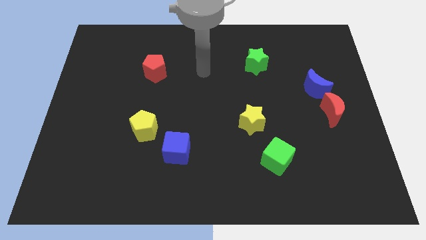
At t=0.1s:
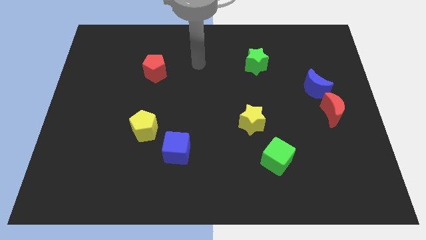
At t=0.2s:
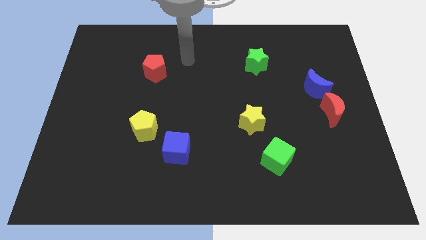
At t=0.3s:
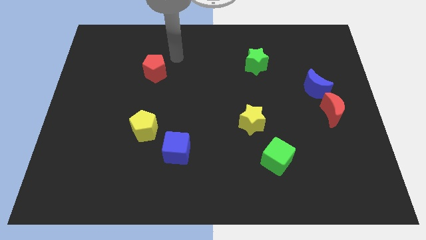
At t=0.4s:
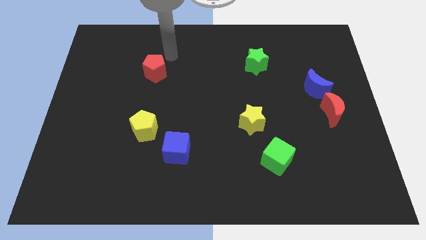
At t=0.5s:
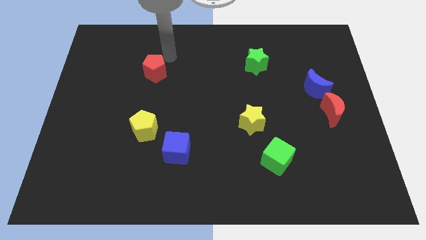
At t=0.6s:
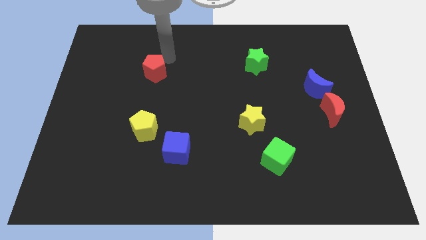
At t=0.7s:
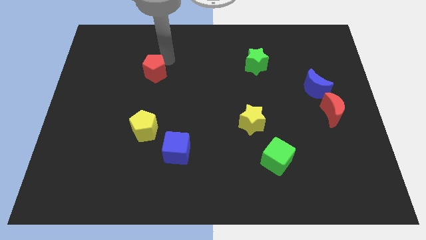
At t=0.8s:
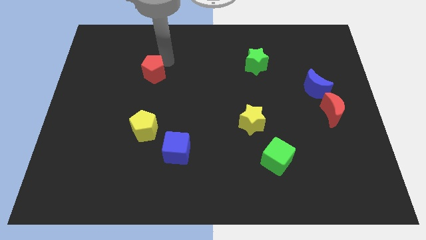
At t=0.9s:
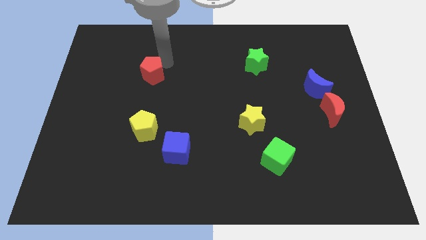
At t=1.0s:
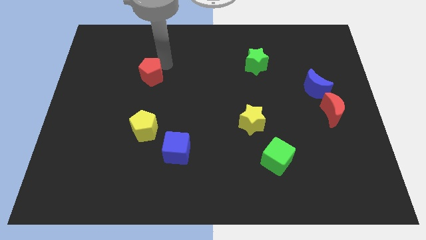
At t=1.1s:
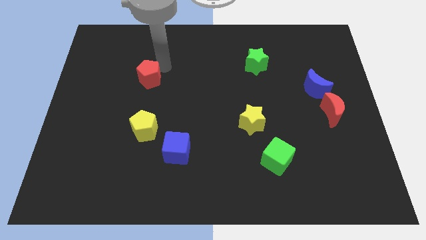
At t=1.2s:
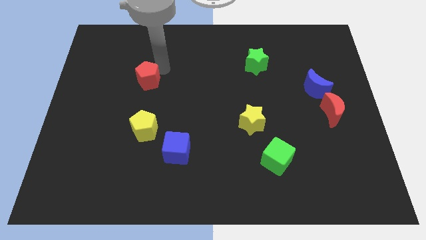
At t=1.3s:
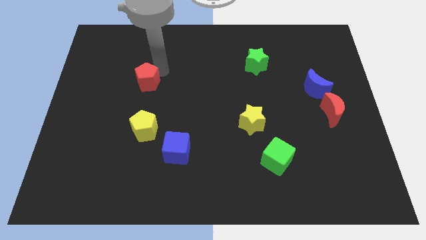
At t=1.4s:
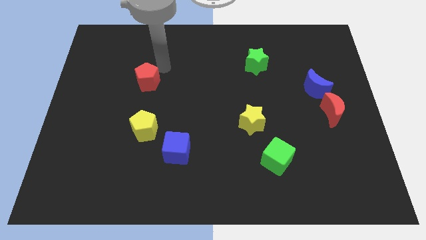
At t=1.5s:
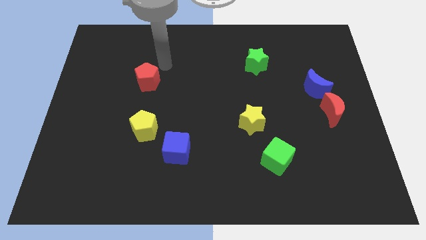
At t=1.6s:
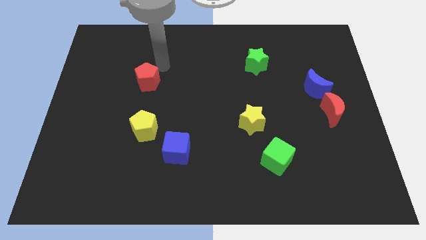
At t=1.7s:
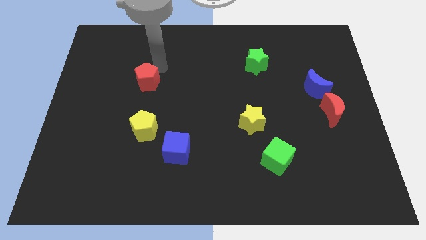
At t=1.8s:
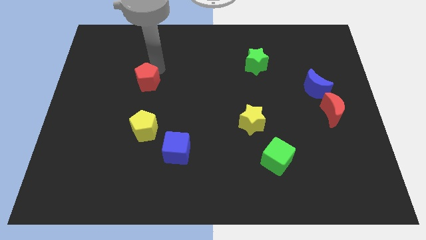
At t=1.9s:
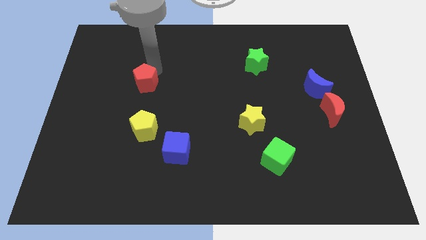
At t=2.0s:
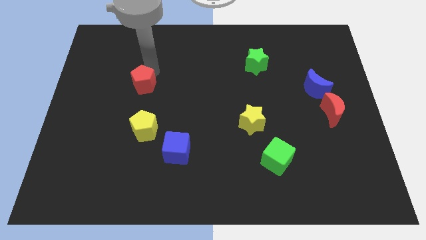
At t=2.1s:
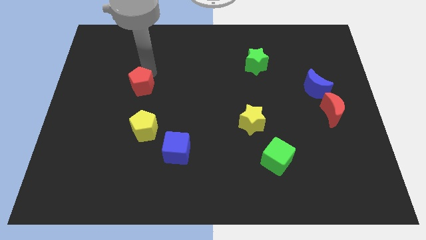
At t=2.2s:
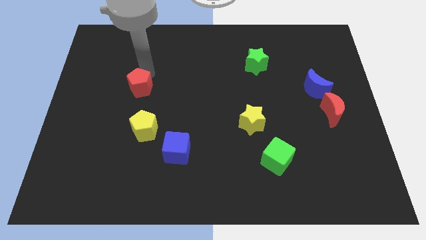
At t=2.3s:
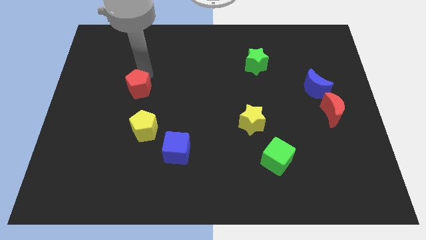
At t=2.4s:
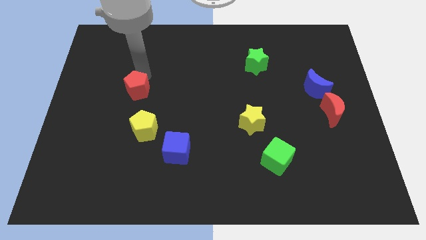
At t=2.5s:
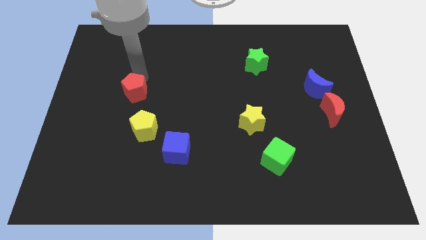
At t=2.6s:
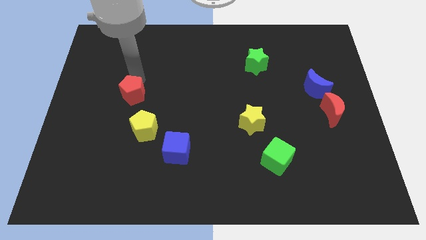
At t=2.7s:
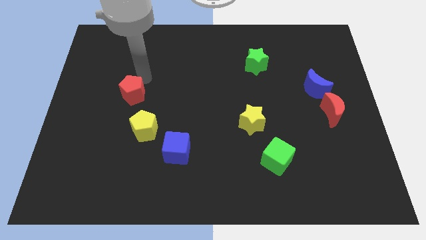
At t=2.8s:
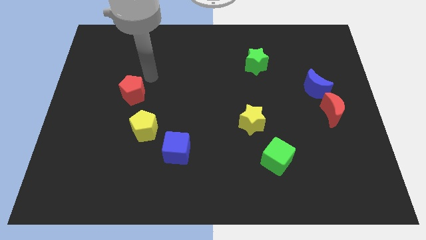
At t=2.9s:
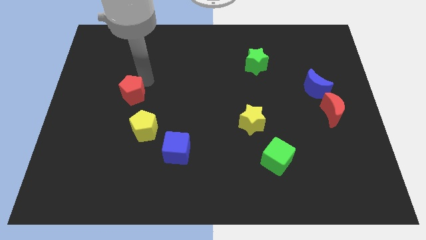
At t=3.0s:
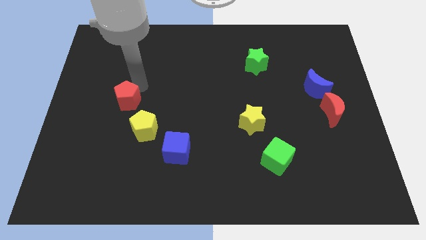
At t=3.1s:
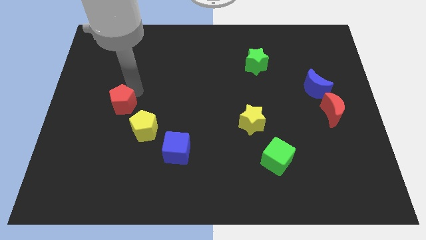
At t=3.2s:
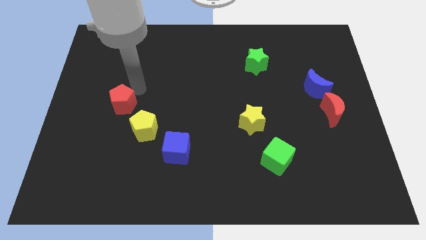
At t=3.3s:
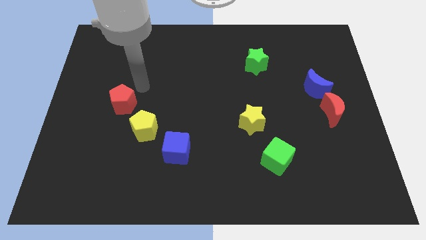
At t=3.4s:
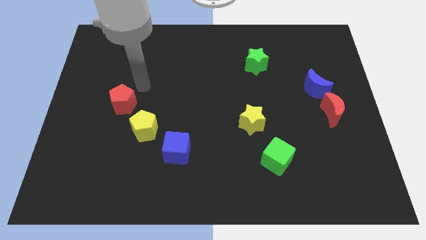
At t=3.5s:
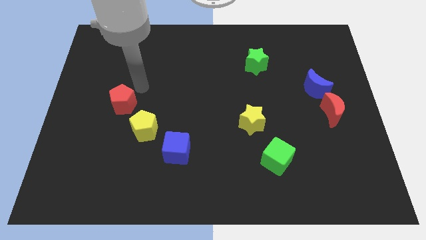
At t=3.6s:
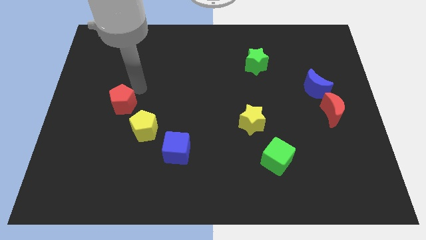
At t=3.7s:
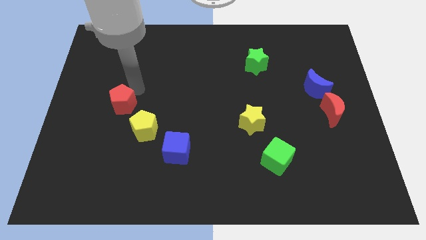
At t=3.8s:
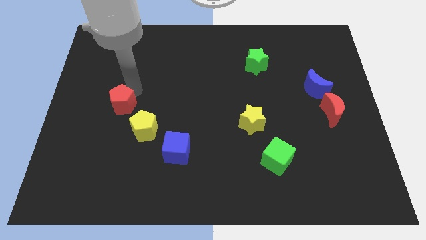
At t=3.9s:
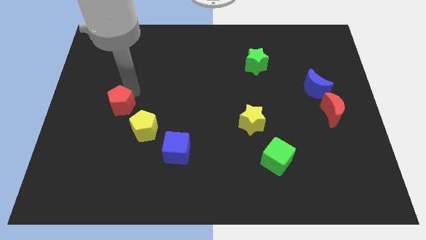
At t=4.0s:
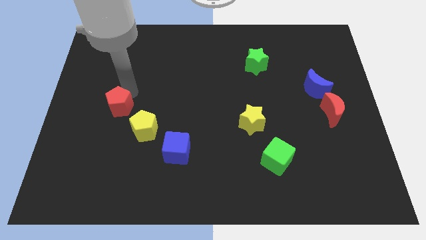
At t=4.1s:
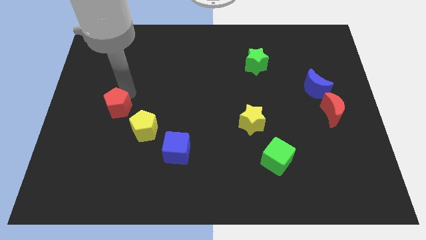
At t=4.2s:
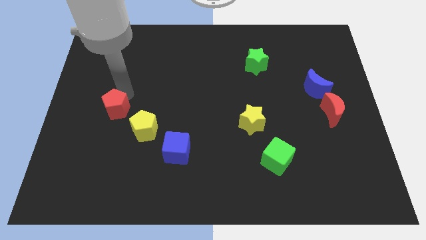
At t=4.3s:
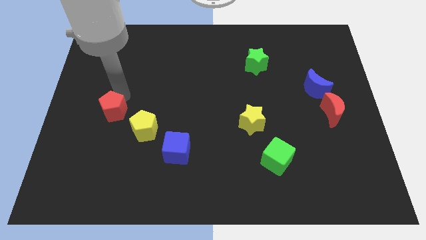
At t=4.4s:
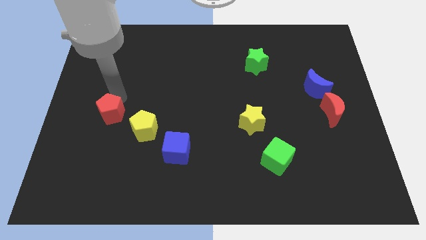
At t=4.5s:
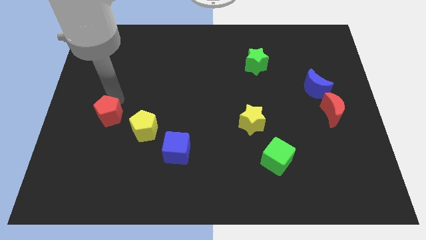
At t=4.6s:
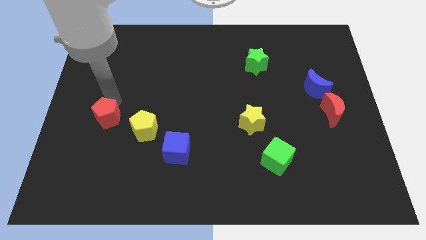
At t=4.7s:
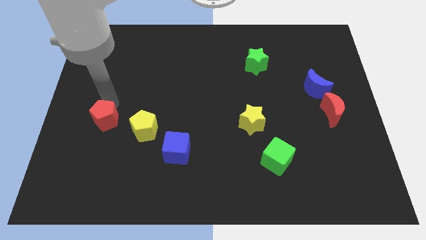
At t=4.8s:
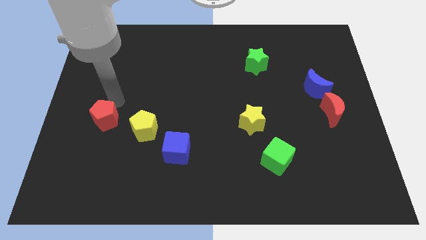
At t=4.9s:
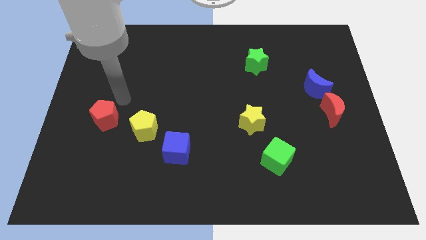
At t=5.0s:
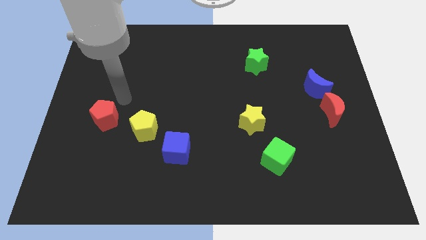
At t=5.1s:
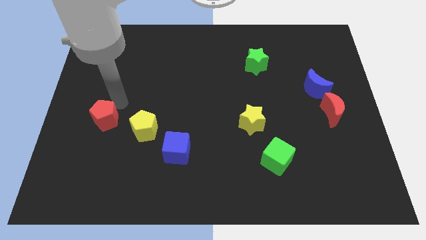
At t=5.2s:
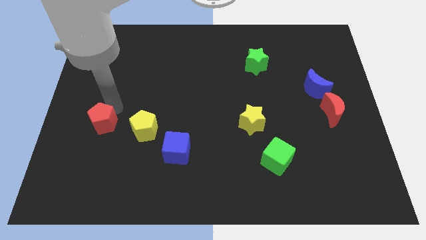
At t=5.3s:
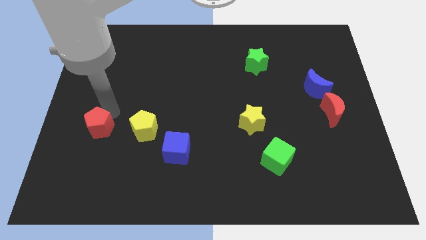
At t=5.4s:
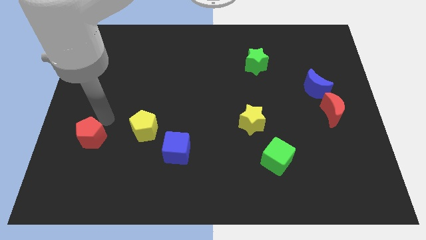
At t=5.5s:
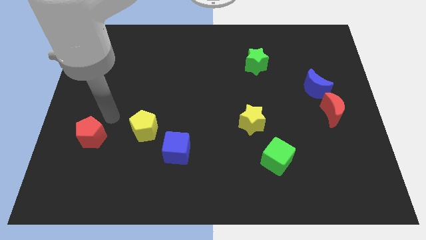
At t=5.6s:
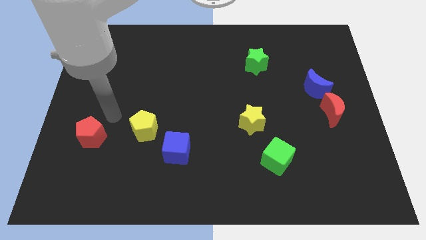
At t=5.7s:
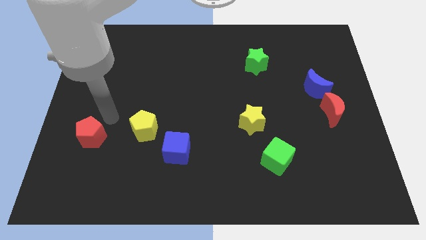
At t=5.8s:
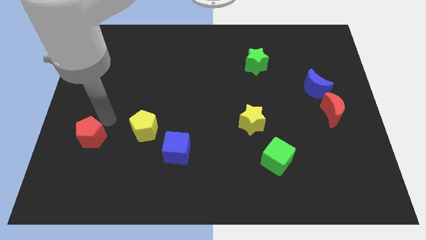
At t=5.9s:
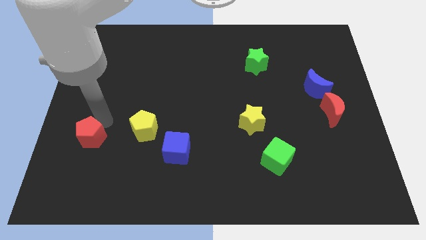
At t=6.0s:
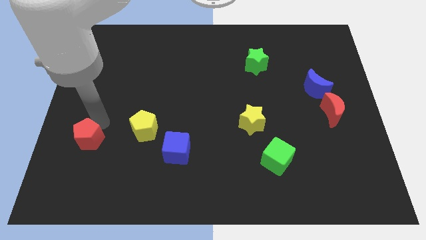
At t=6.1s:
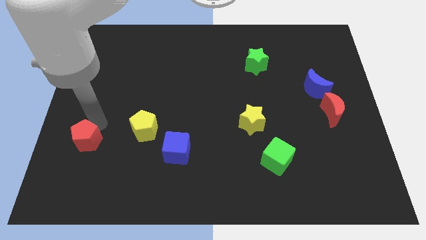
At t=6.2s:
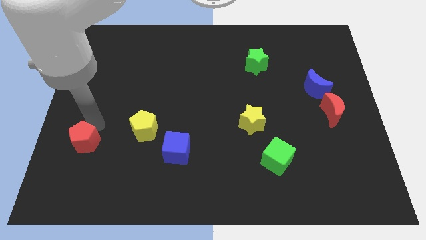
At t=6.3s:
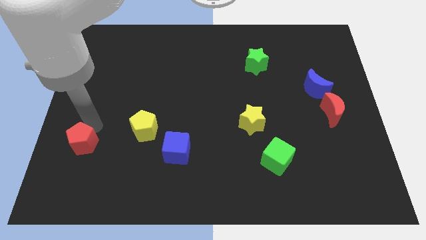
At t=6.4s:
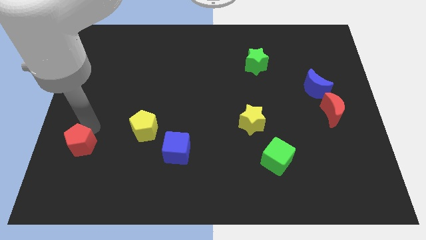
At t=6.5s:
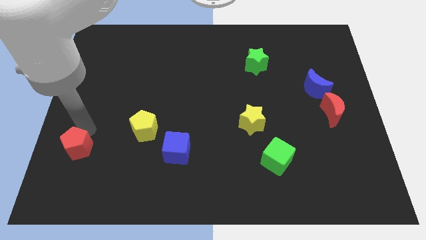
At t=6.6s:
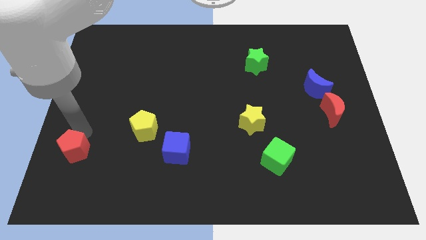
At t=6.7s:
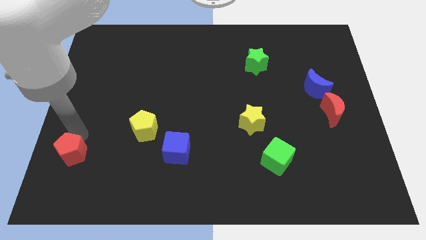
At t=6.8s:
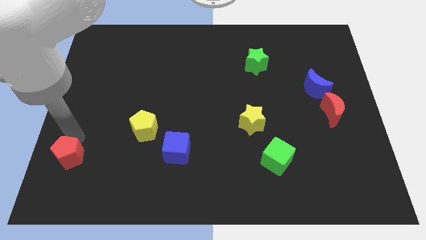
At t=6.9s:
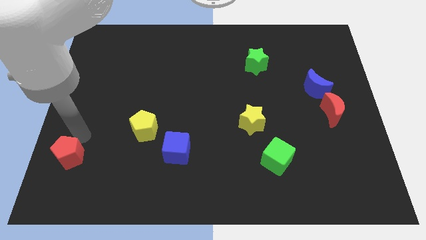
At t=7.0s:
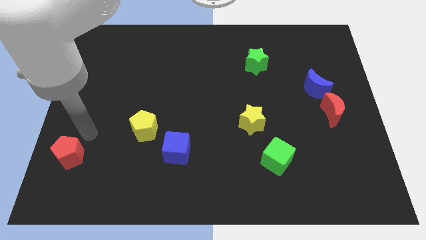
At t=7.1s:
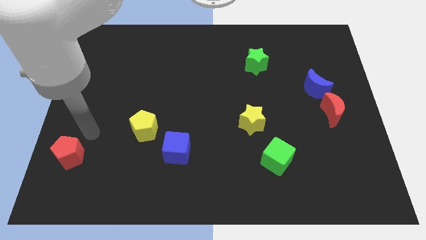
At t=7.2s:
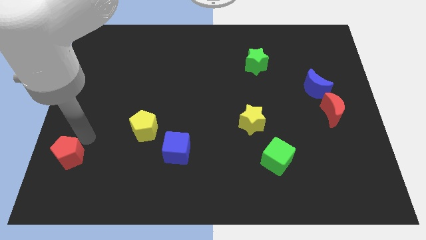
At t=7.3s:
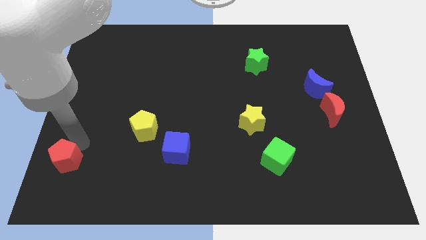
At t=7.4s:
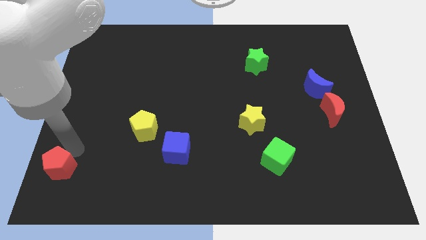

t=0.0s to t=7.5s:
slide the red pentagon to the lower left corner
